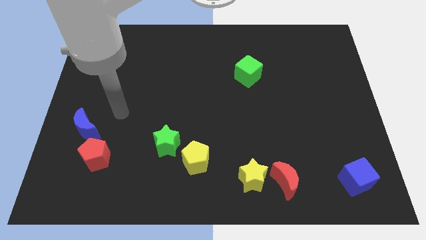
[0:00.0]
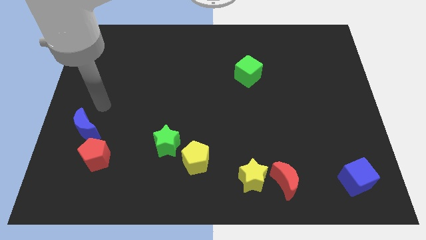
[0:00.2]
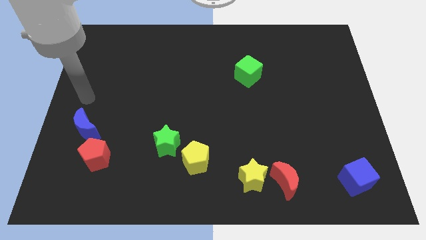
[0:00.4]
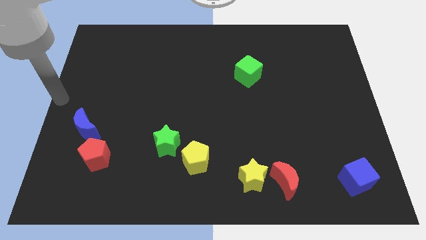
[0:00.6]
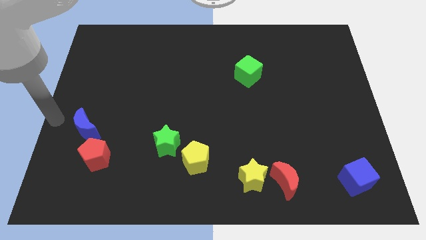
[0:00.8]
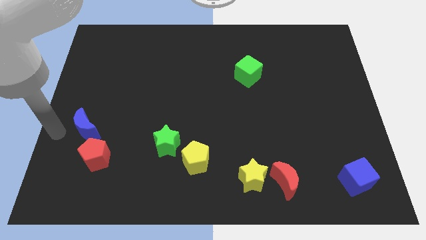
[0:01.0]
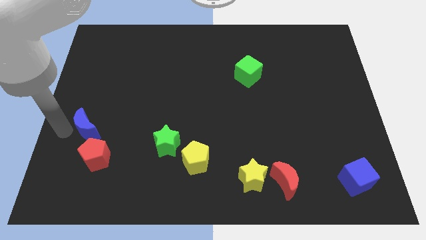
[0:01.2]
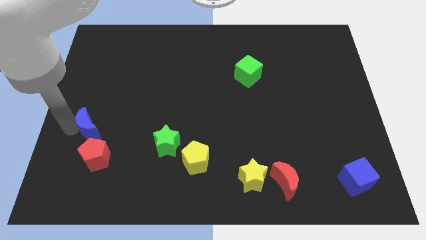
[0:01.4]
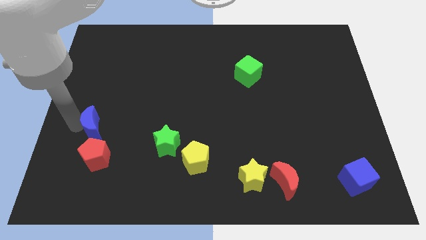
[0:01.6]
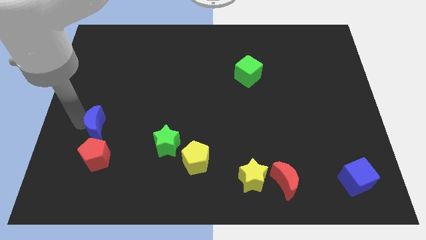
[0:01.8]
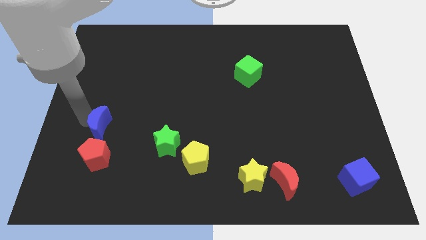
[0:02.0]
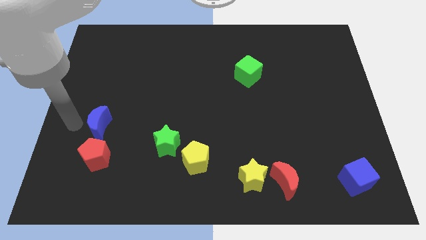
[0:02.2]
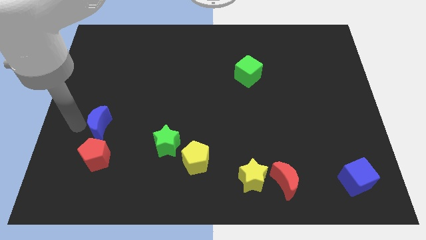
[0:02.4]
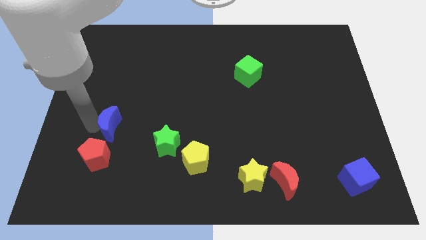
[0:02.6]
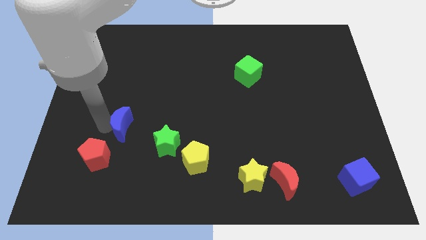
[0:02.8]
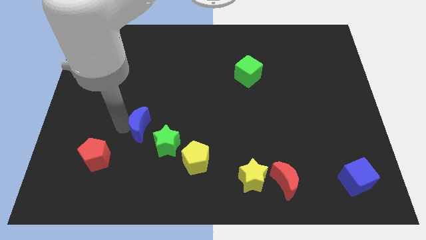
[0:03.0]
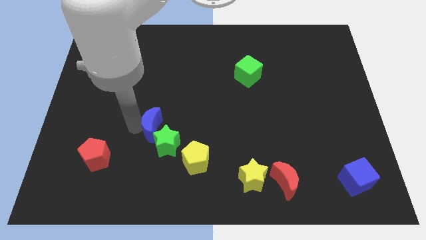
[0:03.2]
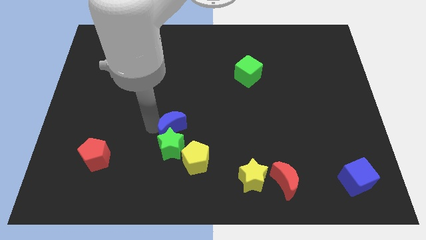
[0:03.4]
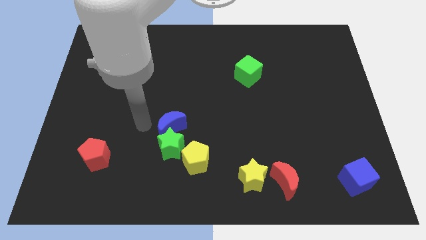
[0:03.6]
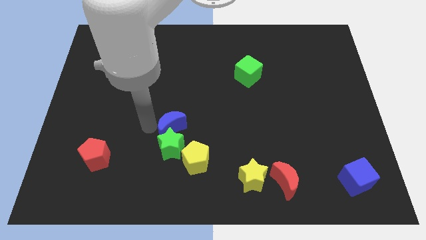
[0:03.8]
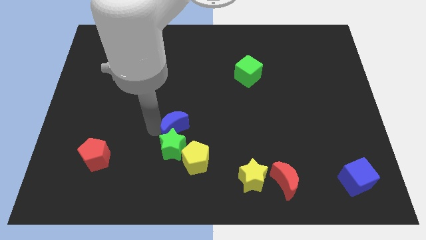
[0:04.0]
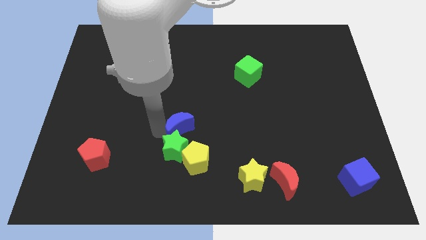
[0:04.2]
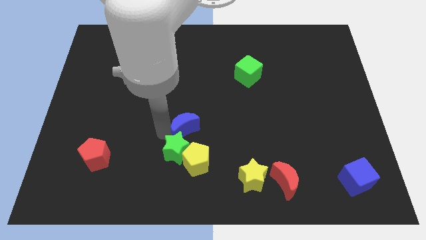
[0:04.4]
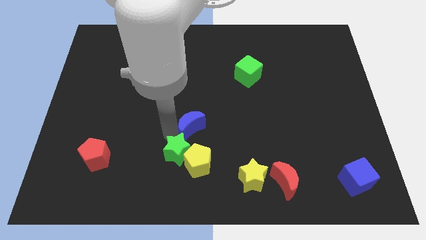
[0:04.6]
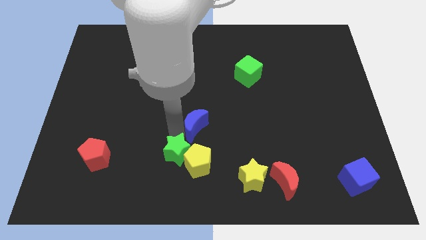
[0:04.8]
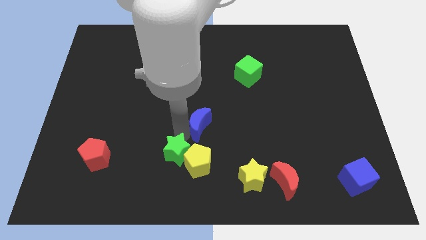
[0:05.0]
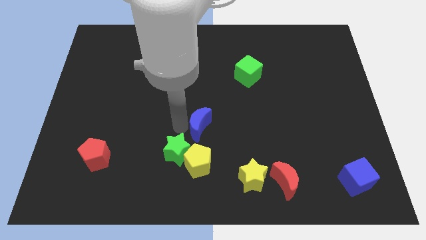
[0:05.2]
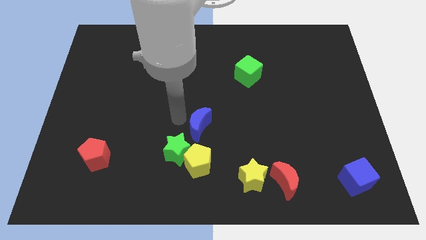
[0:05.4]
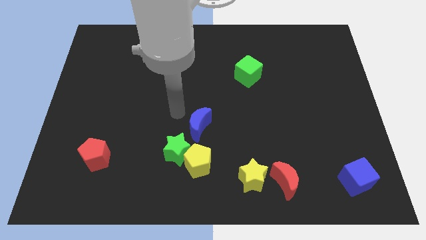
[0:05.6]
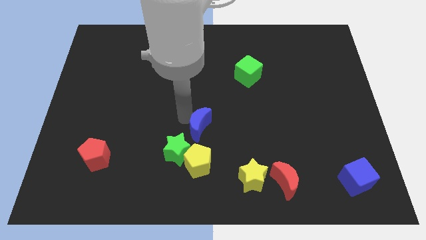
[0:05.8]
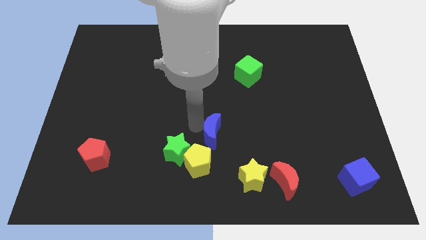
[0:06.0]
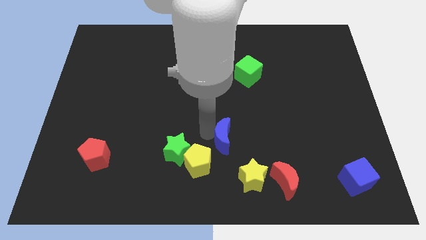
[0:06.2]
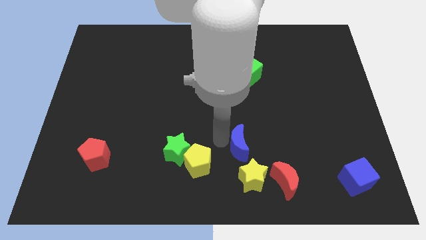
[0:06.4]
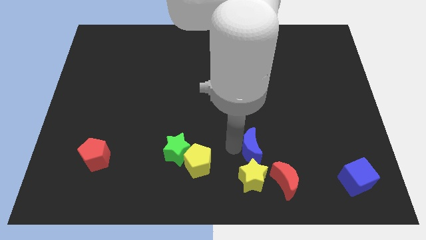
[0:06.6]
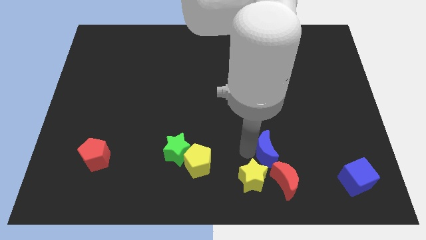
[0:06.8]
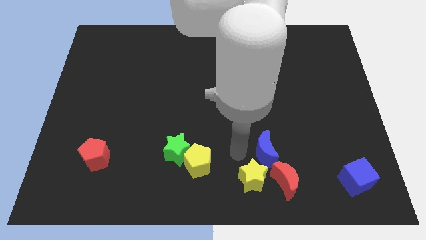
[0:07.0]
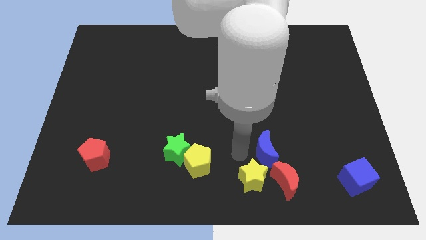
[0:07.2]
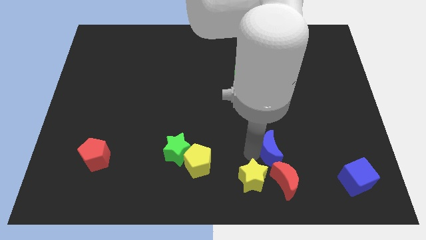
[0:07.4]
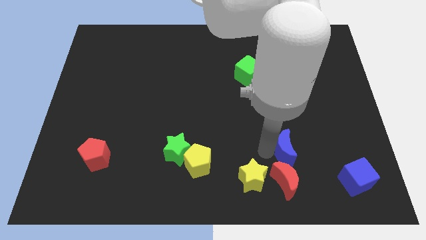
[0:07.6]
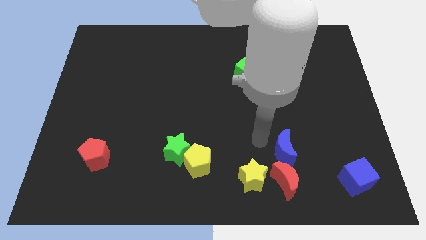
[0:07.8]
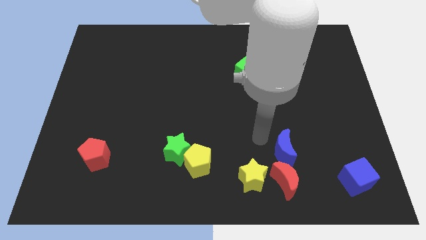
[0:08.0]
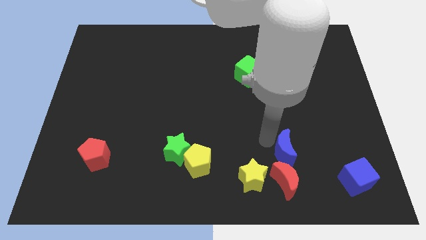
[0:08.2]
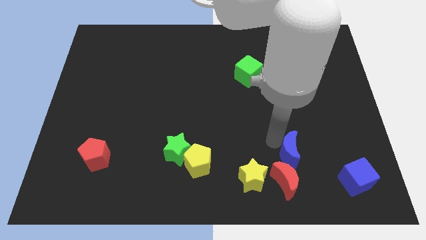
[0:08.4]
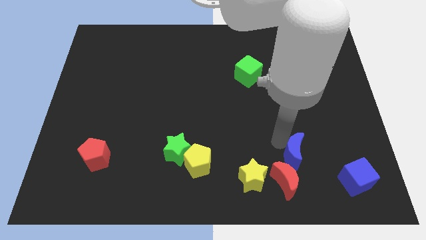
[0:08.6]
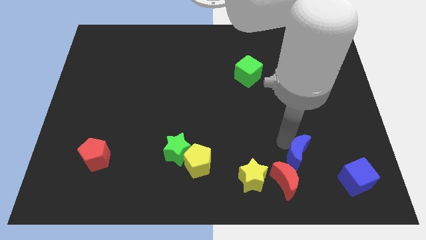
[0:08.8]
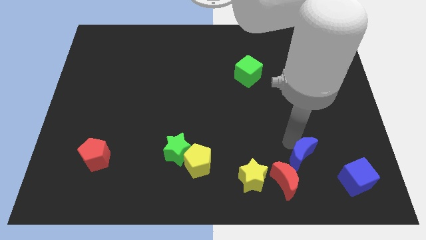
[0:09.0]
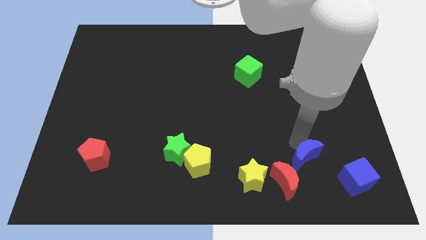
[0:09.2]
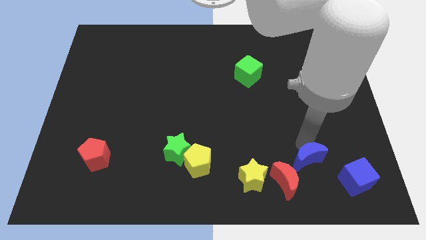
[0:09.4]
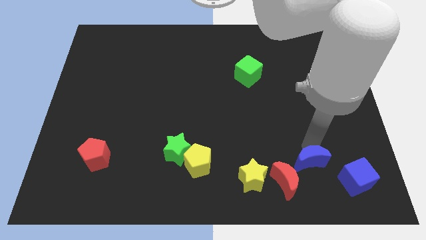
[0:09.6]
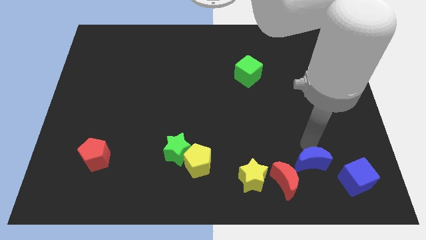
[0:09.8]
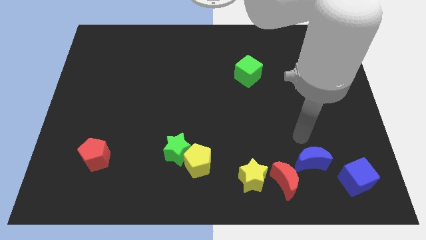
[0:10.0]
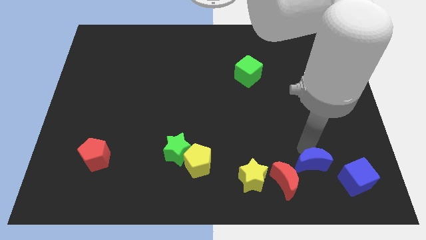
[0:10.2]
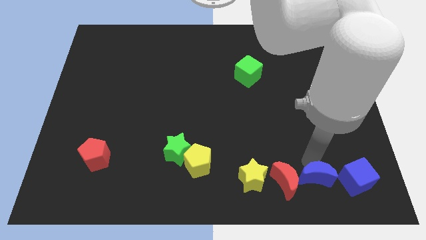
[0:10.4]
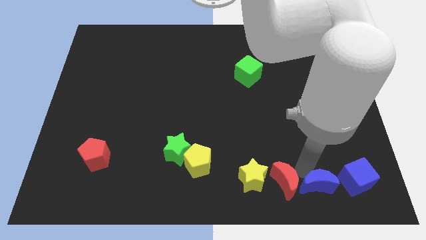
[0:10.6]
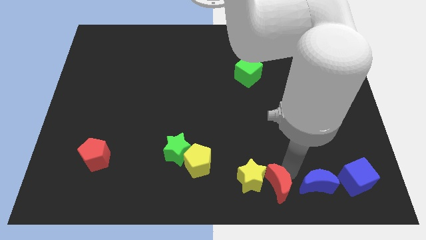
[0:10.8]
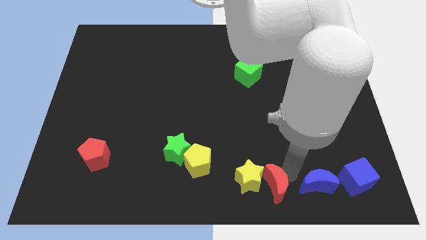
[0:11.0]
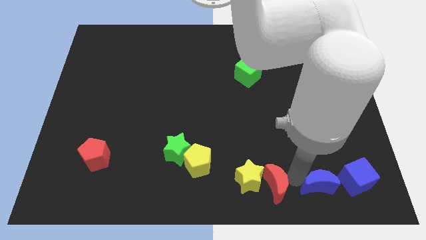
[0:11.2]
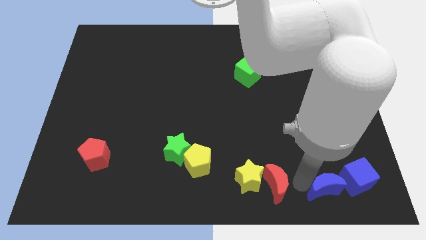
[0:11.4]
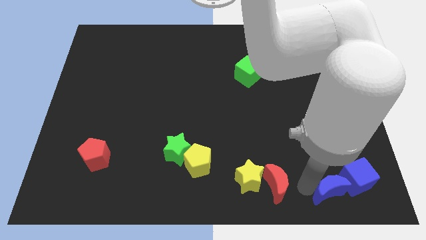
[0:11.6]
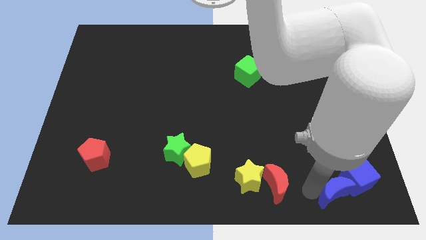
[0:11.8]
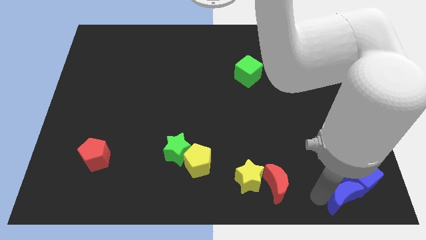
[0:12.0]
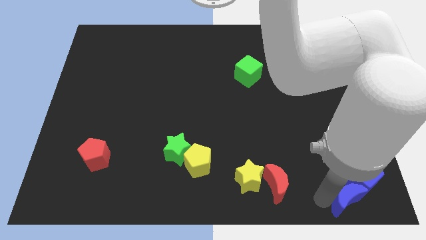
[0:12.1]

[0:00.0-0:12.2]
move the blue moon to the lower right corner
